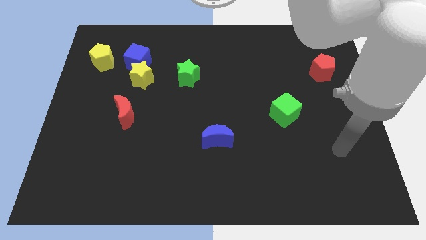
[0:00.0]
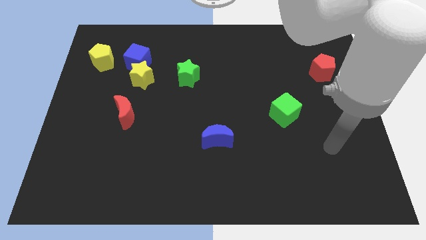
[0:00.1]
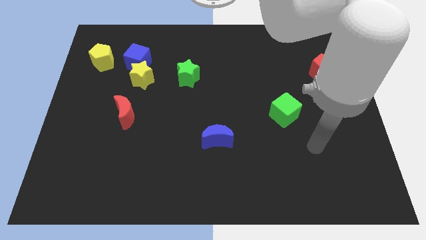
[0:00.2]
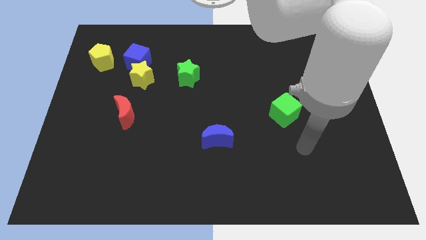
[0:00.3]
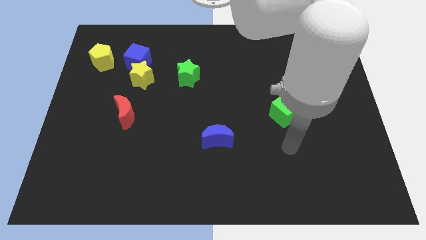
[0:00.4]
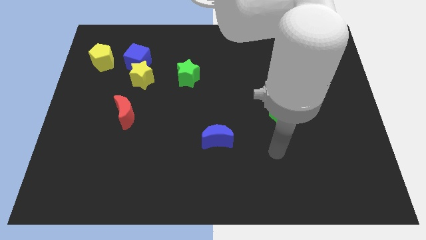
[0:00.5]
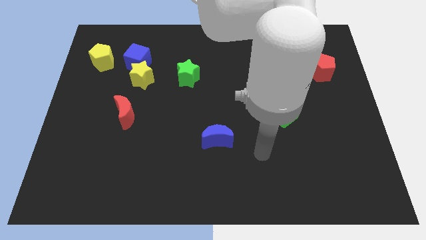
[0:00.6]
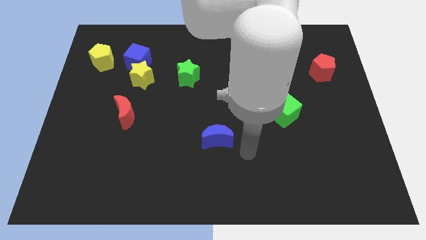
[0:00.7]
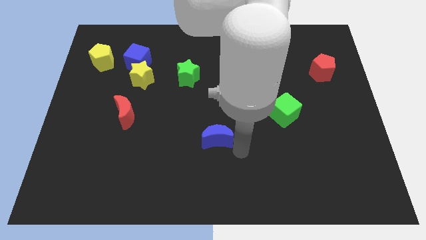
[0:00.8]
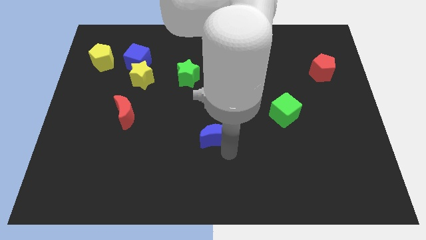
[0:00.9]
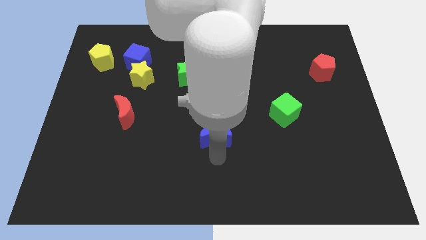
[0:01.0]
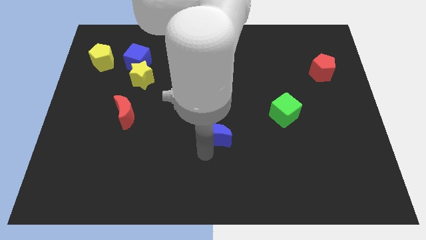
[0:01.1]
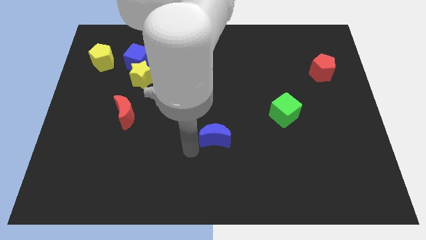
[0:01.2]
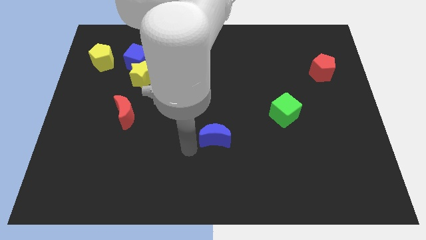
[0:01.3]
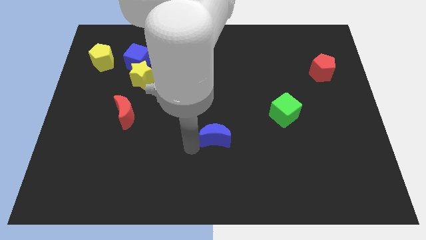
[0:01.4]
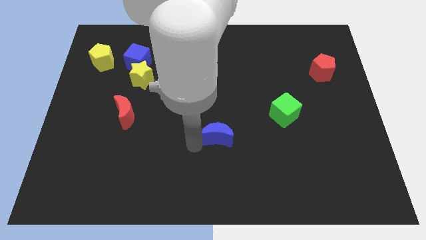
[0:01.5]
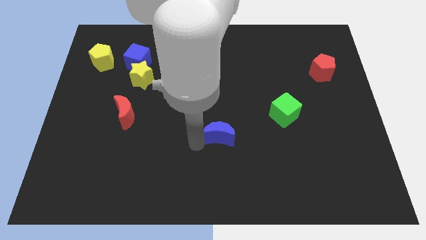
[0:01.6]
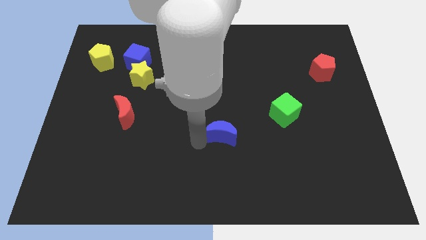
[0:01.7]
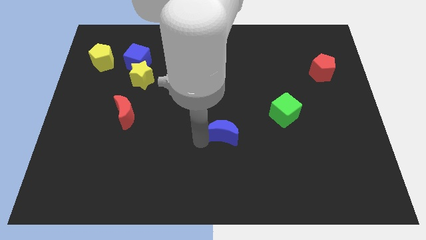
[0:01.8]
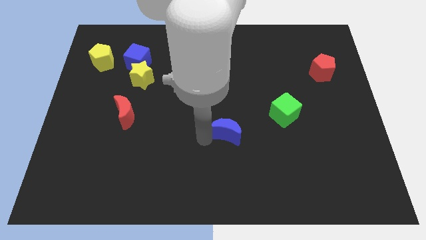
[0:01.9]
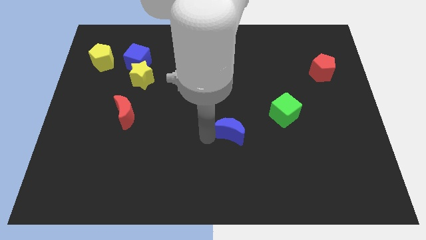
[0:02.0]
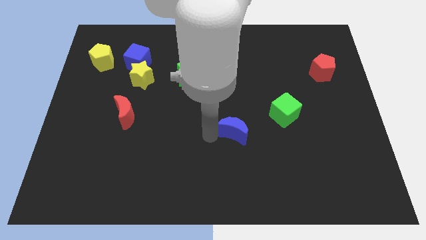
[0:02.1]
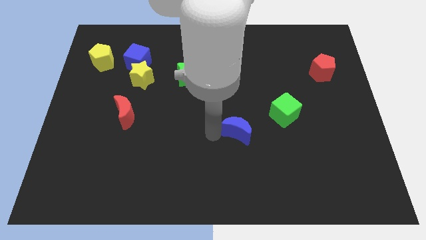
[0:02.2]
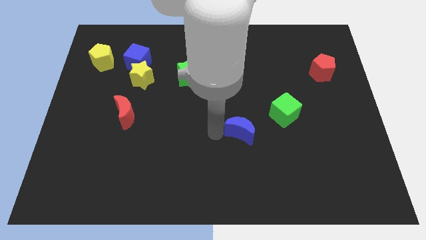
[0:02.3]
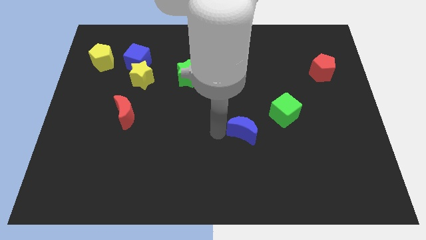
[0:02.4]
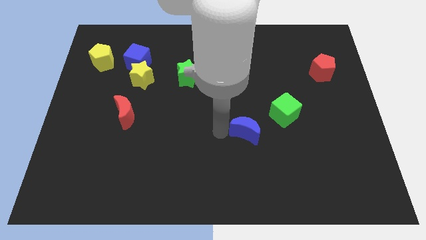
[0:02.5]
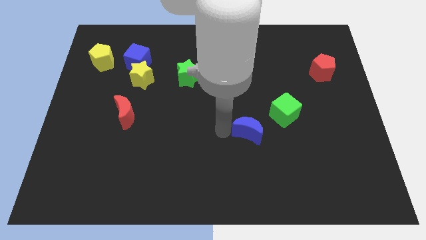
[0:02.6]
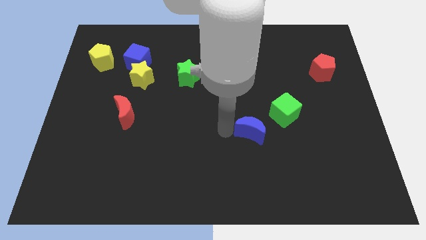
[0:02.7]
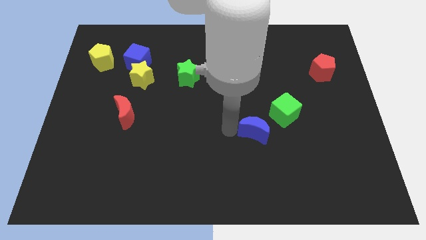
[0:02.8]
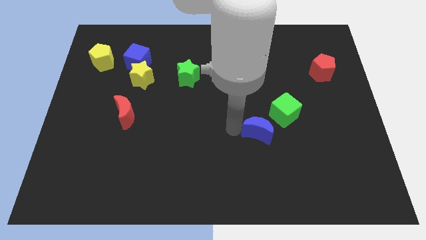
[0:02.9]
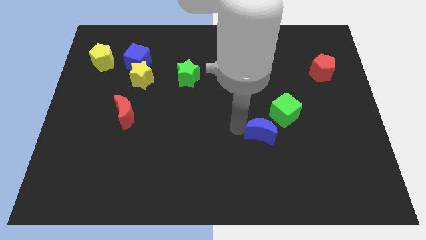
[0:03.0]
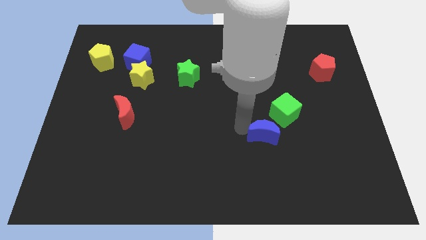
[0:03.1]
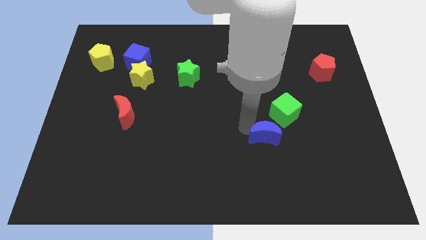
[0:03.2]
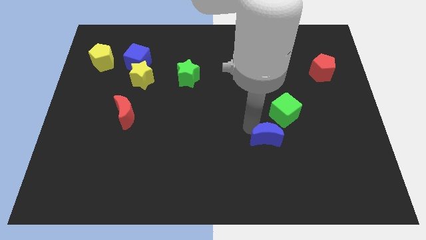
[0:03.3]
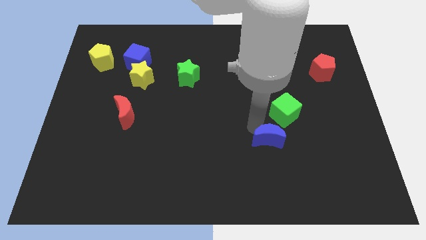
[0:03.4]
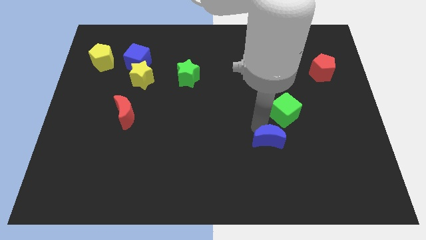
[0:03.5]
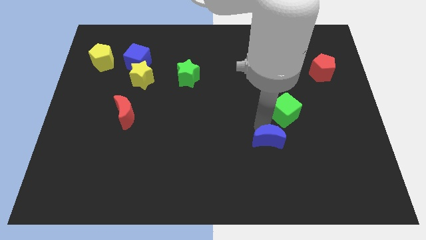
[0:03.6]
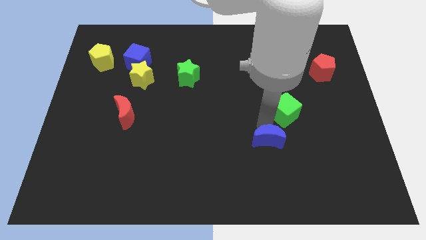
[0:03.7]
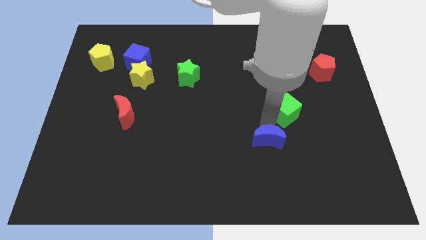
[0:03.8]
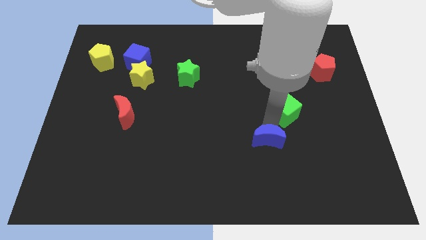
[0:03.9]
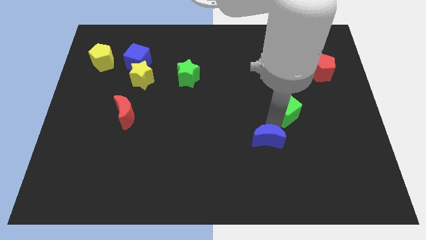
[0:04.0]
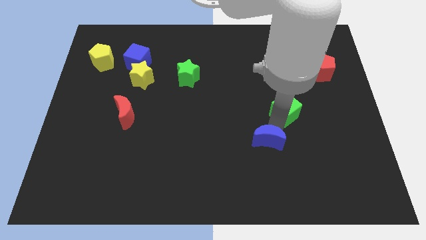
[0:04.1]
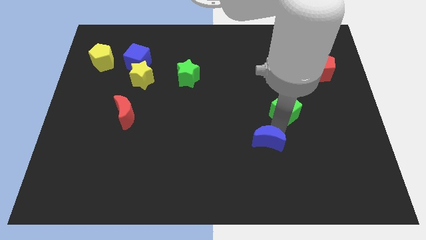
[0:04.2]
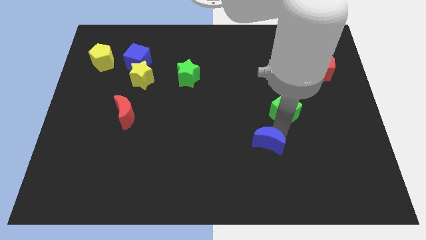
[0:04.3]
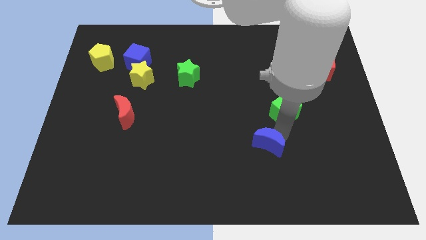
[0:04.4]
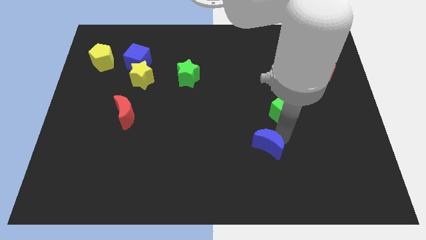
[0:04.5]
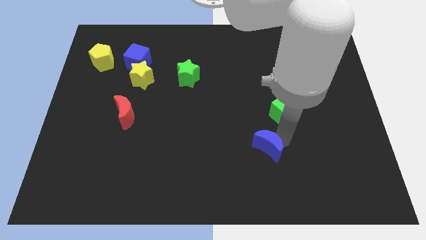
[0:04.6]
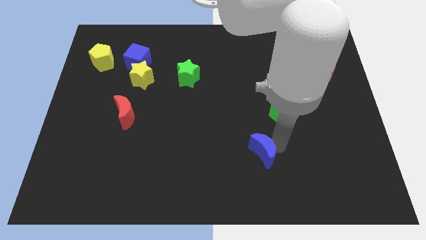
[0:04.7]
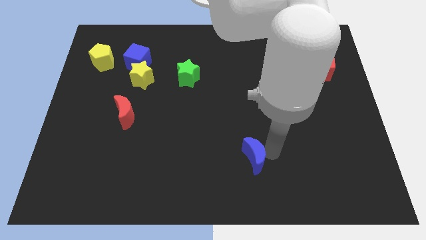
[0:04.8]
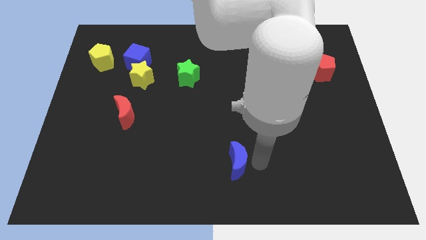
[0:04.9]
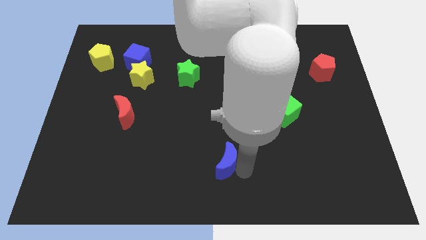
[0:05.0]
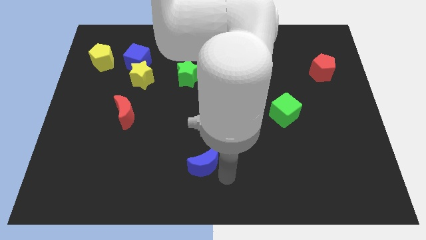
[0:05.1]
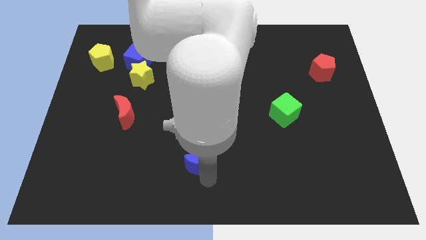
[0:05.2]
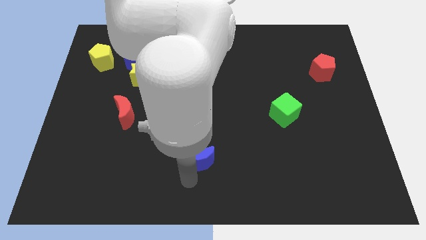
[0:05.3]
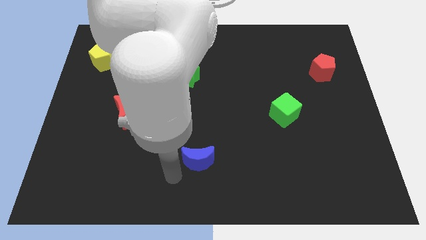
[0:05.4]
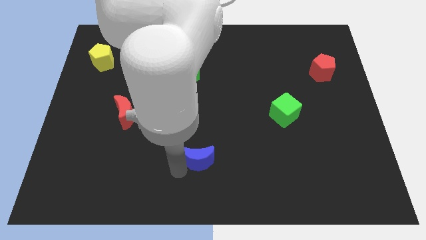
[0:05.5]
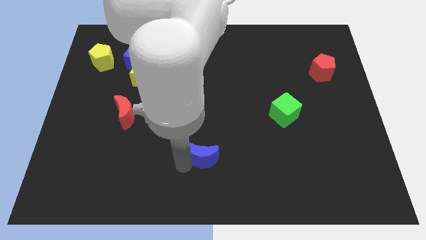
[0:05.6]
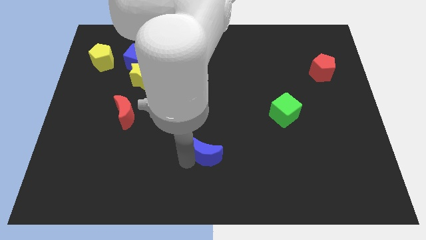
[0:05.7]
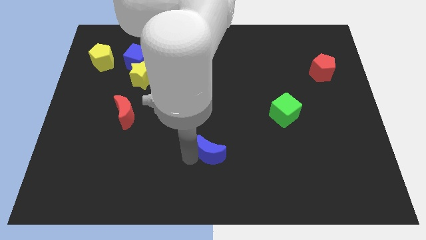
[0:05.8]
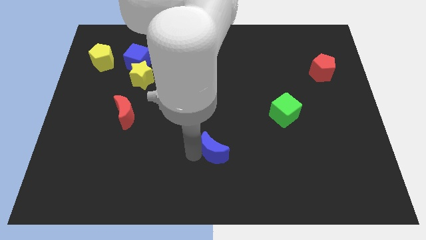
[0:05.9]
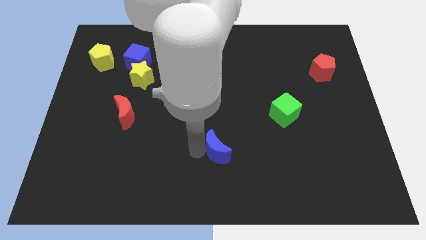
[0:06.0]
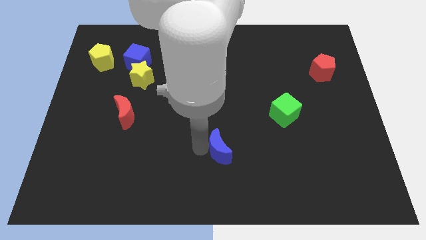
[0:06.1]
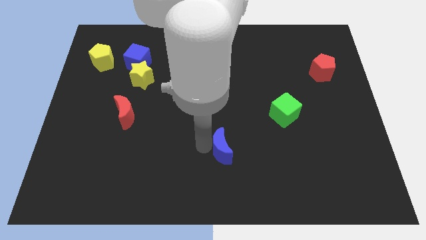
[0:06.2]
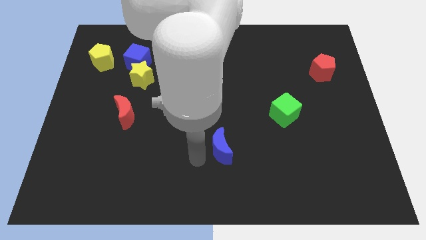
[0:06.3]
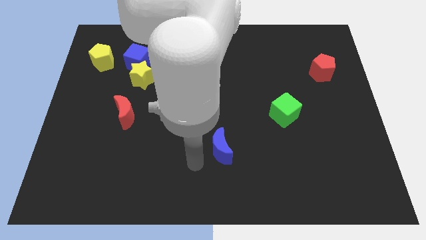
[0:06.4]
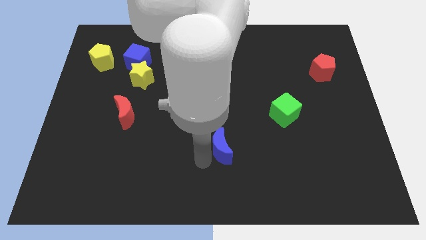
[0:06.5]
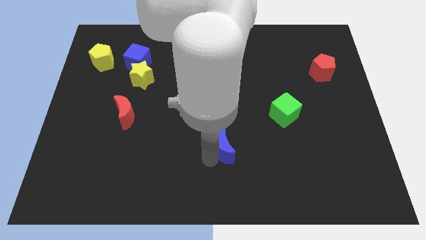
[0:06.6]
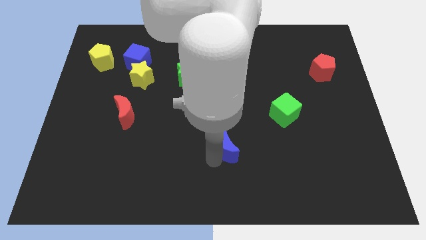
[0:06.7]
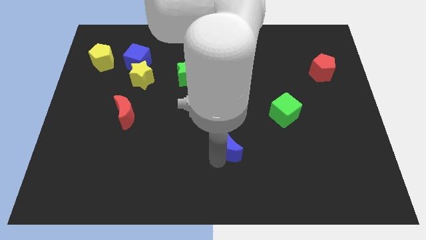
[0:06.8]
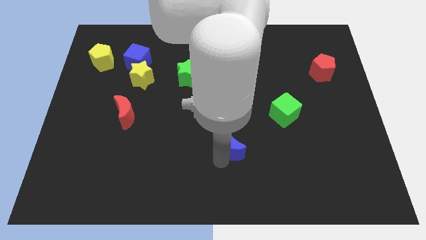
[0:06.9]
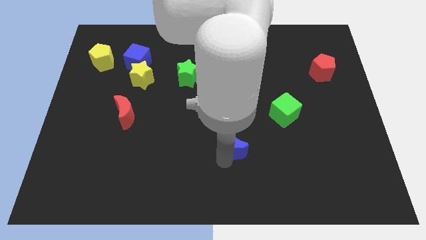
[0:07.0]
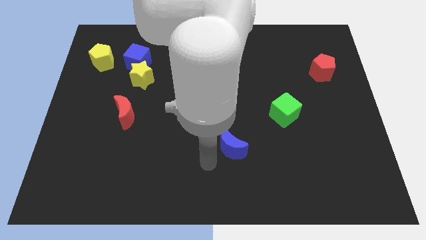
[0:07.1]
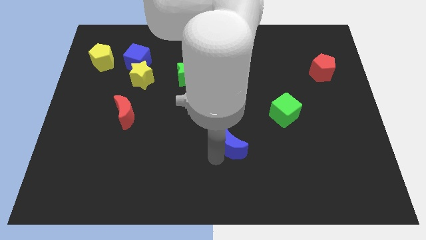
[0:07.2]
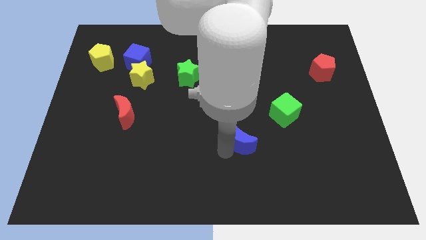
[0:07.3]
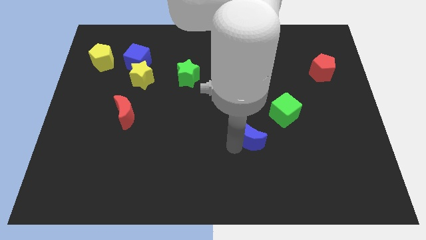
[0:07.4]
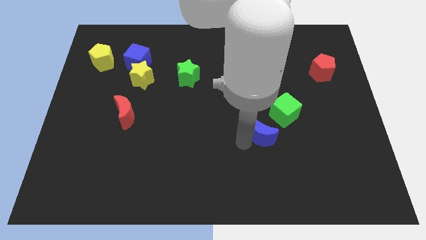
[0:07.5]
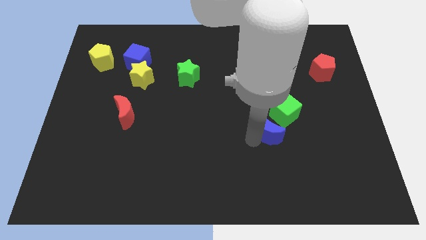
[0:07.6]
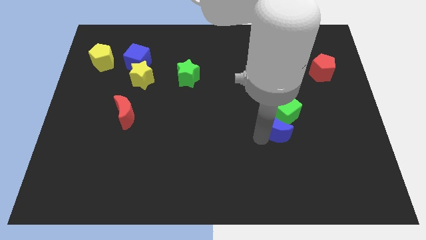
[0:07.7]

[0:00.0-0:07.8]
put the blue moon next to the green cube
